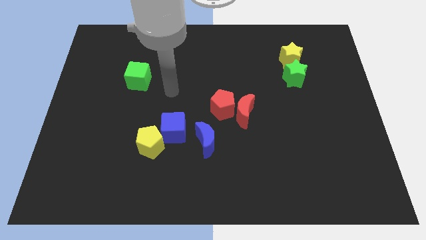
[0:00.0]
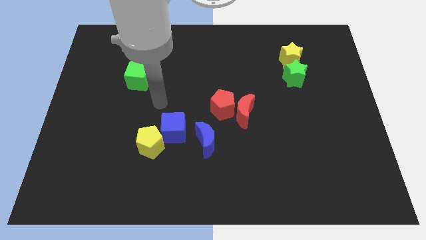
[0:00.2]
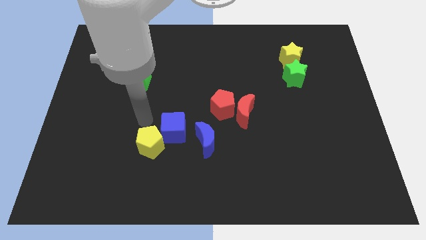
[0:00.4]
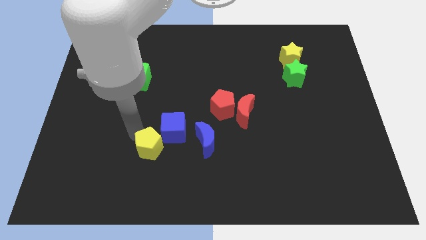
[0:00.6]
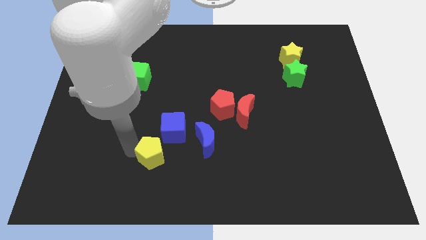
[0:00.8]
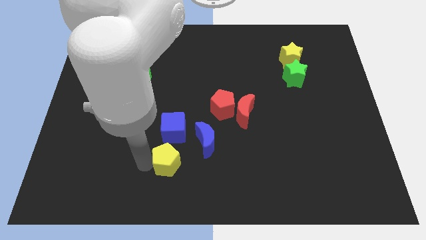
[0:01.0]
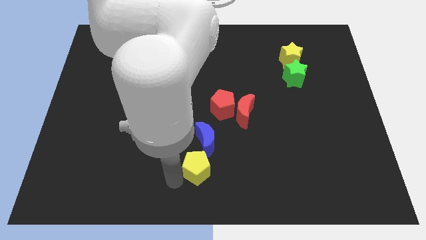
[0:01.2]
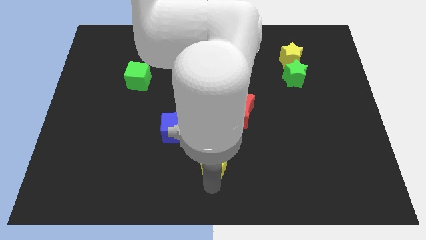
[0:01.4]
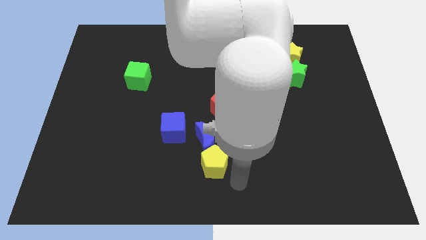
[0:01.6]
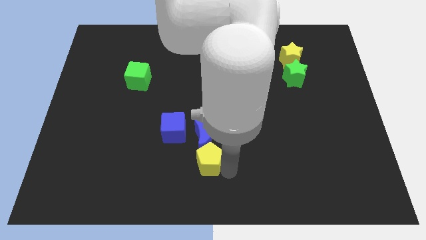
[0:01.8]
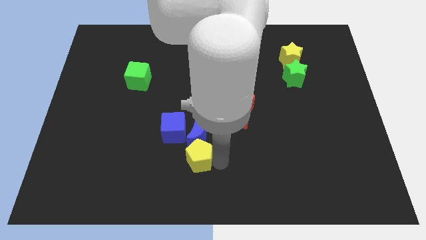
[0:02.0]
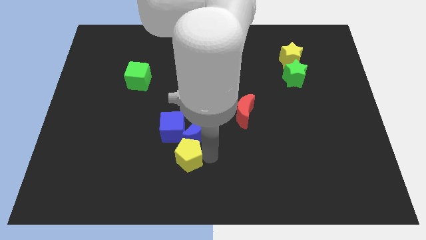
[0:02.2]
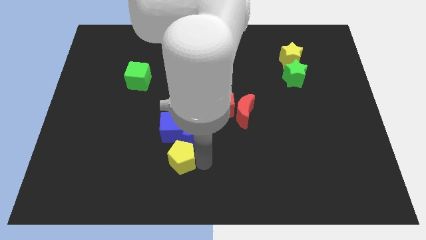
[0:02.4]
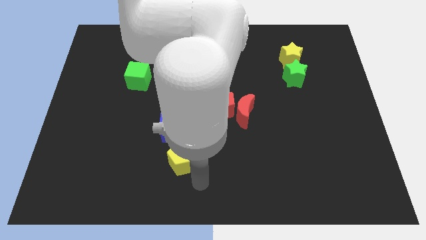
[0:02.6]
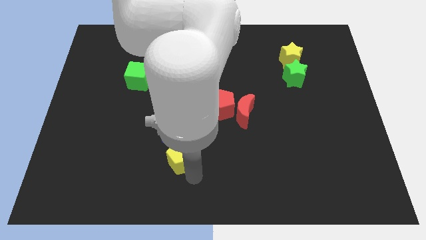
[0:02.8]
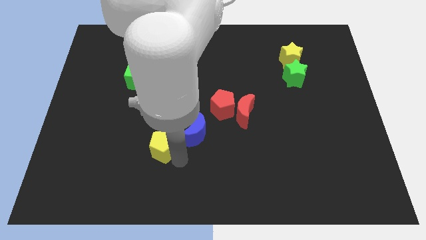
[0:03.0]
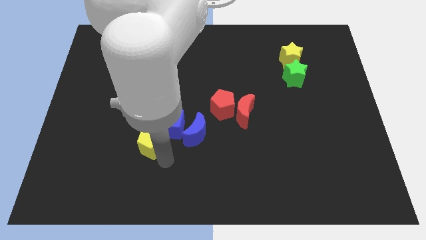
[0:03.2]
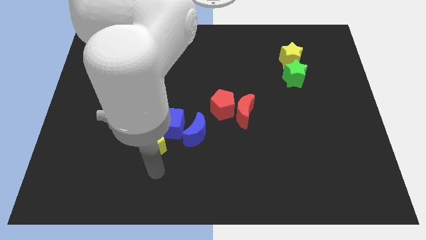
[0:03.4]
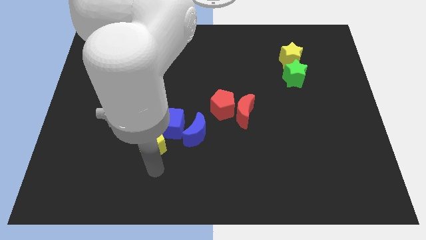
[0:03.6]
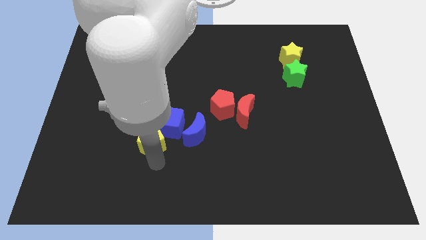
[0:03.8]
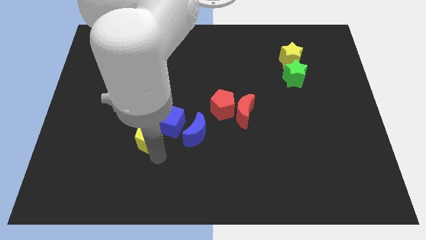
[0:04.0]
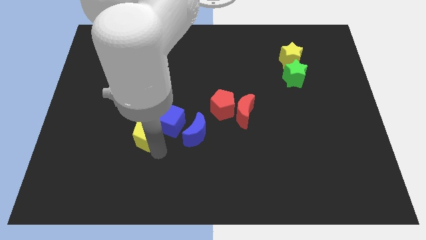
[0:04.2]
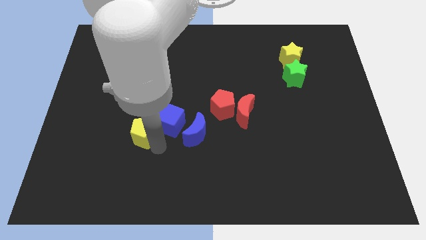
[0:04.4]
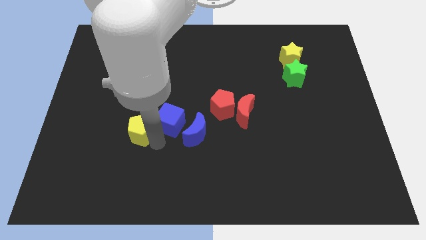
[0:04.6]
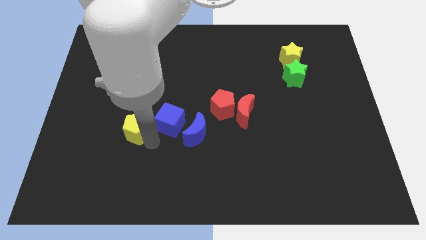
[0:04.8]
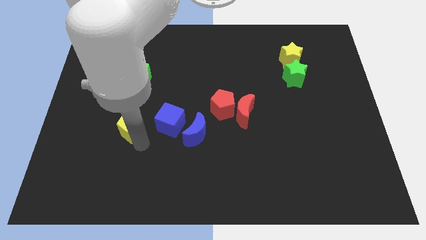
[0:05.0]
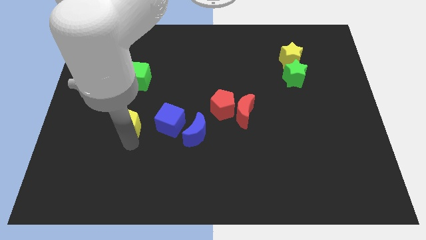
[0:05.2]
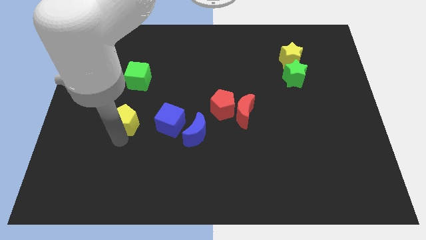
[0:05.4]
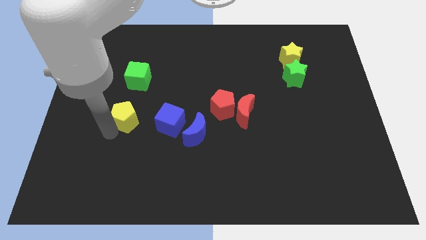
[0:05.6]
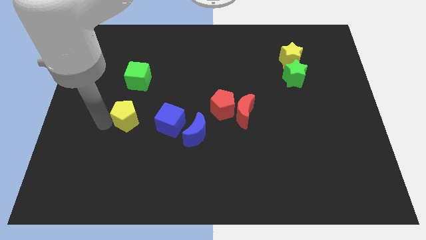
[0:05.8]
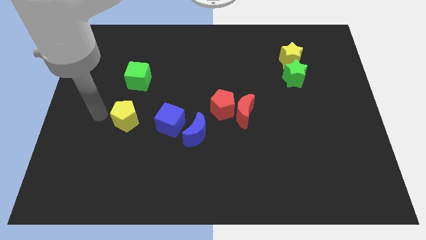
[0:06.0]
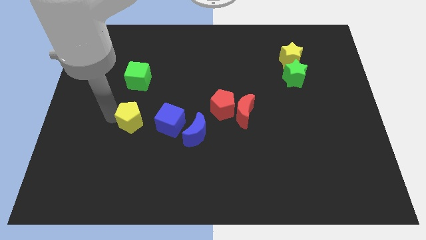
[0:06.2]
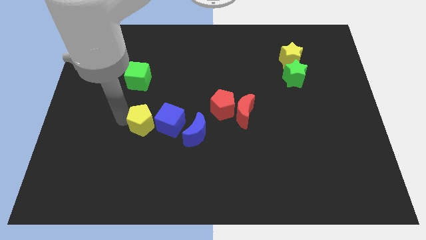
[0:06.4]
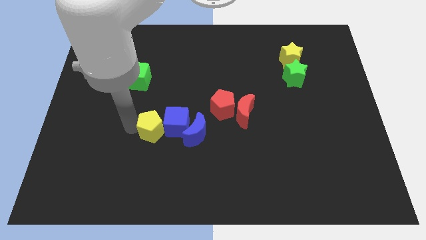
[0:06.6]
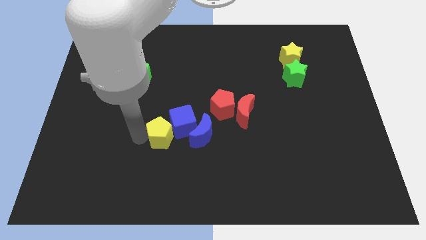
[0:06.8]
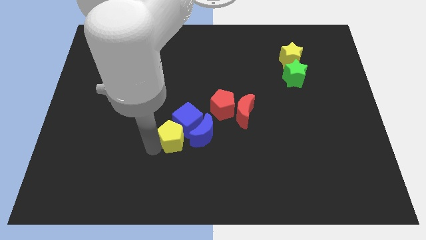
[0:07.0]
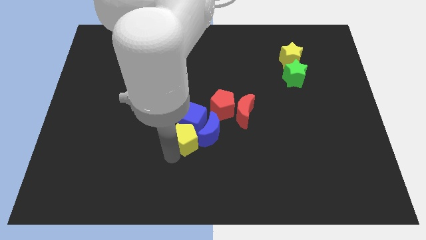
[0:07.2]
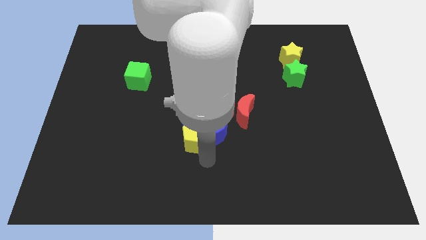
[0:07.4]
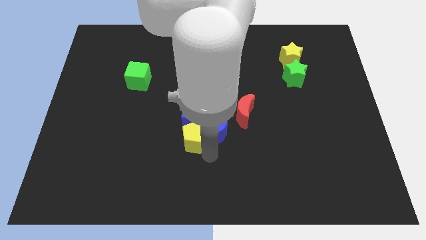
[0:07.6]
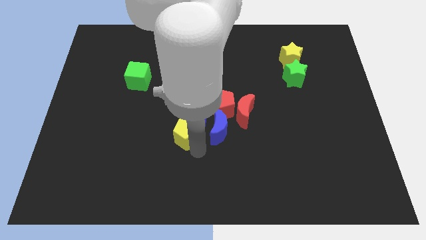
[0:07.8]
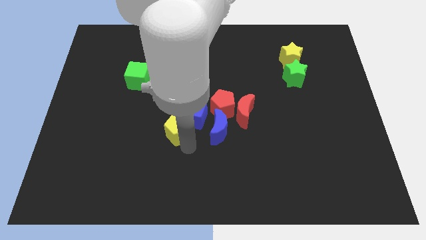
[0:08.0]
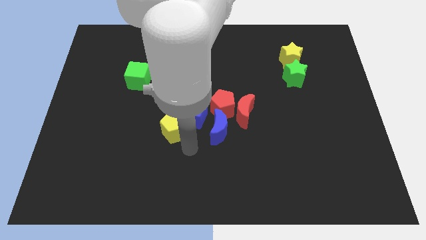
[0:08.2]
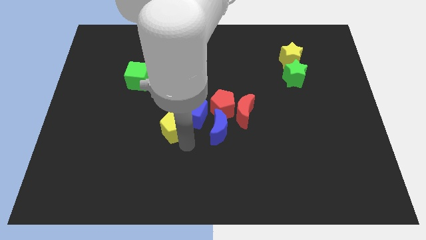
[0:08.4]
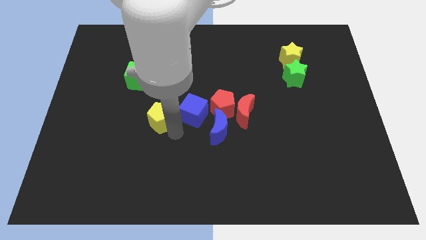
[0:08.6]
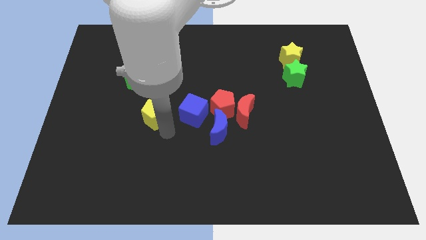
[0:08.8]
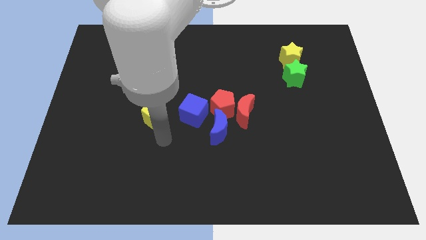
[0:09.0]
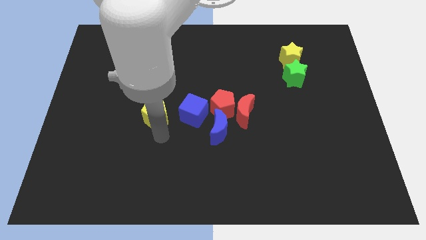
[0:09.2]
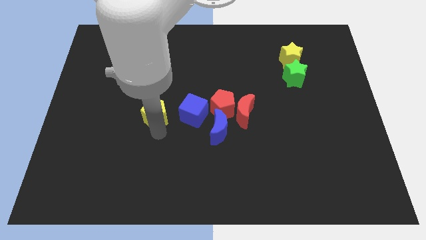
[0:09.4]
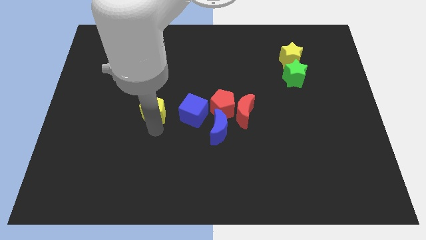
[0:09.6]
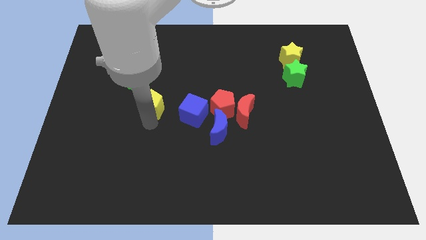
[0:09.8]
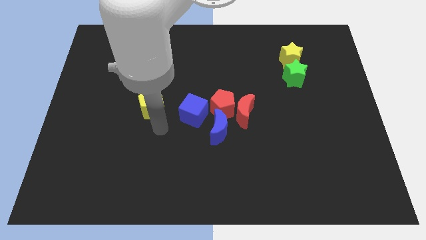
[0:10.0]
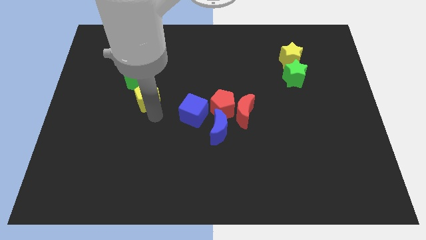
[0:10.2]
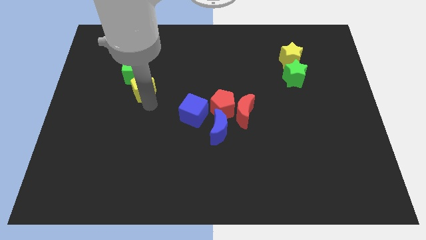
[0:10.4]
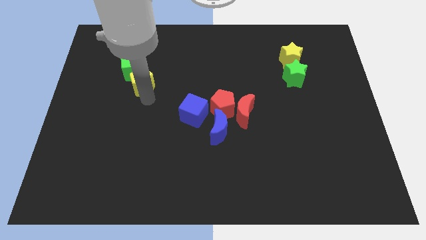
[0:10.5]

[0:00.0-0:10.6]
put the yellow pentagon to the green cube

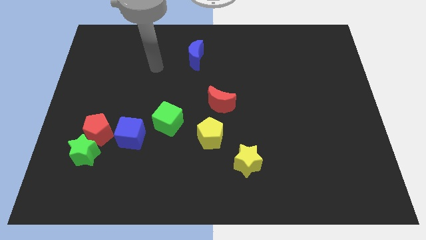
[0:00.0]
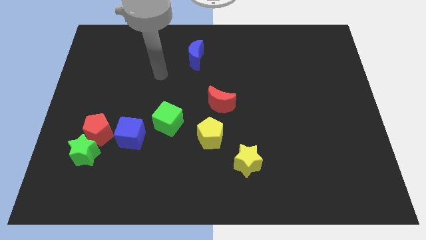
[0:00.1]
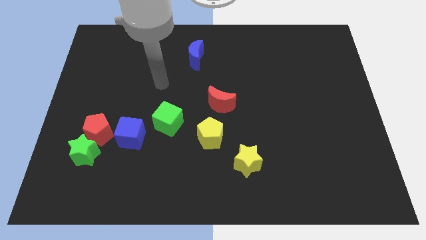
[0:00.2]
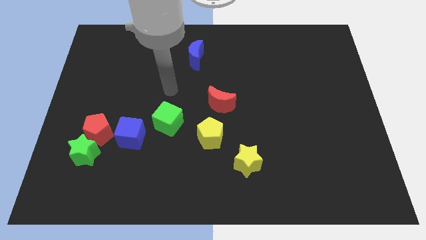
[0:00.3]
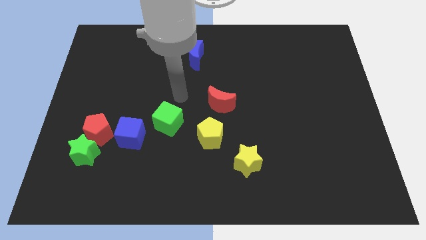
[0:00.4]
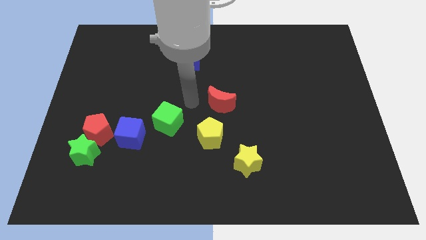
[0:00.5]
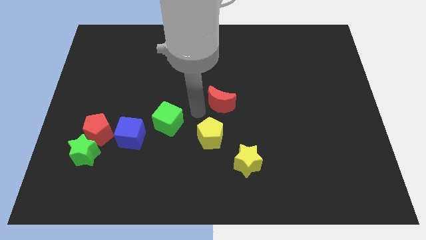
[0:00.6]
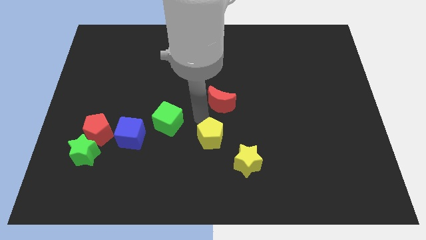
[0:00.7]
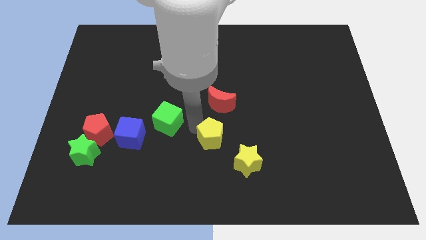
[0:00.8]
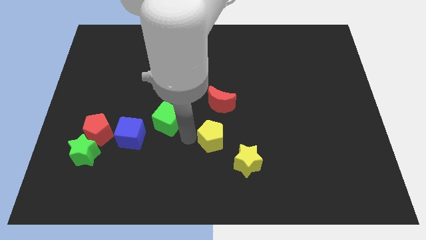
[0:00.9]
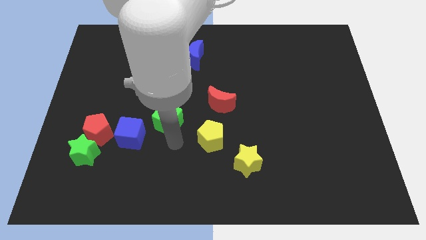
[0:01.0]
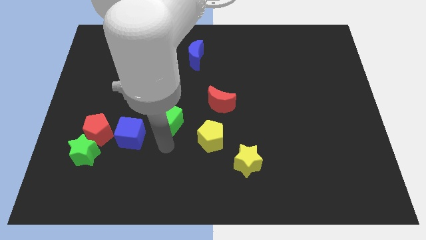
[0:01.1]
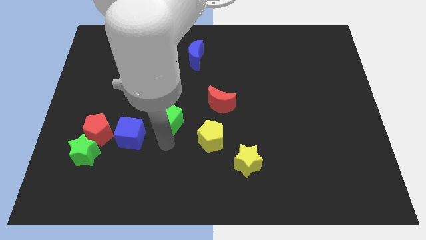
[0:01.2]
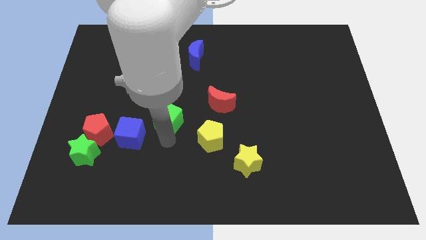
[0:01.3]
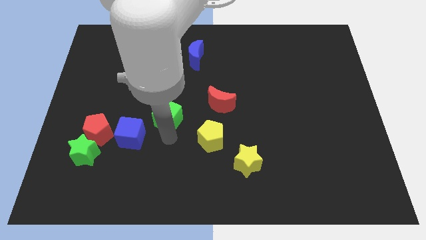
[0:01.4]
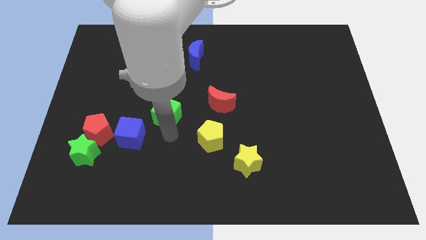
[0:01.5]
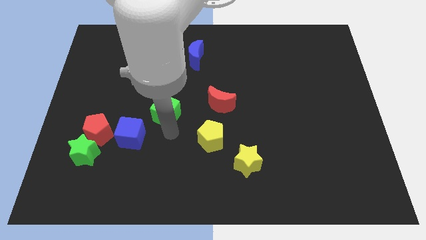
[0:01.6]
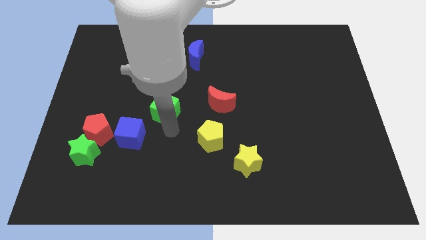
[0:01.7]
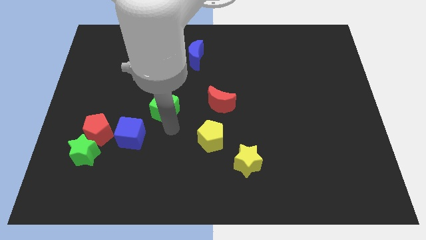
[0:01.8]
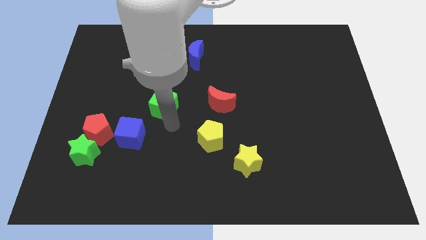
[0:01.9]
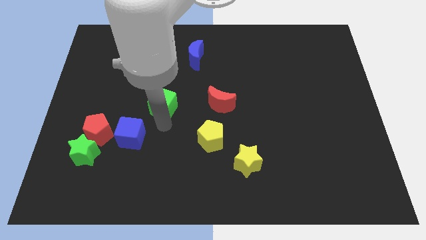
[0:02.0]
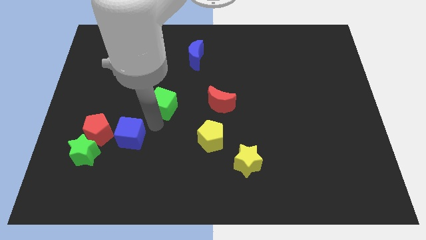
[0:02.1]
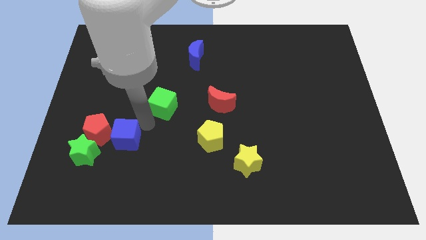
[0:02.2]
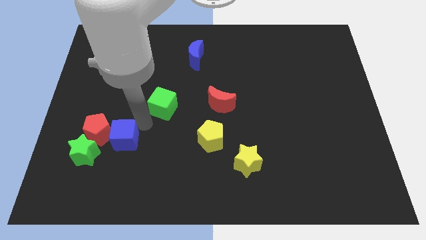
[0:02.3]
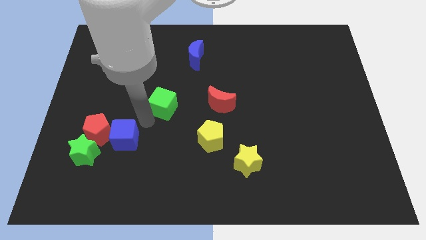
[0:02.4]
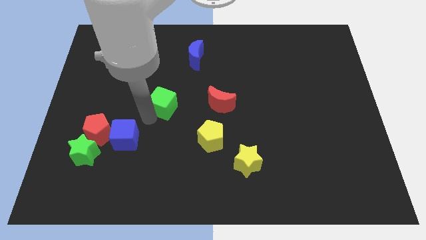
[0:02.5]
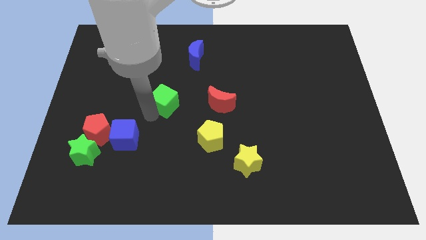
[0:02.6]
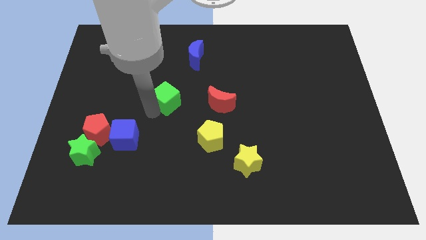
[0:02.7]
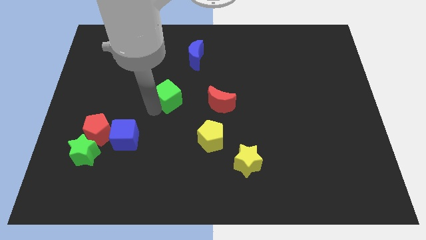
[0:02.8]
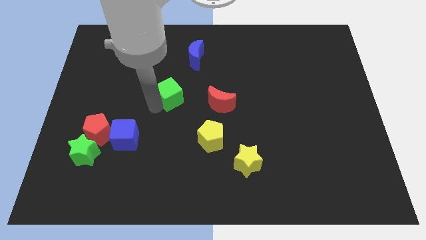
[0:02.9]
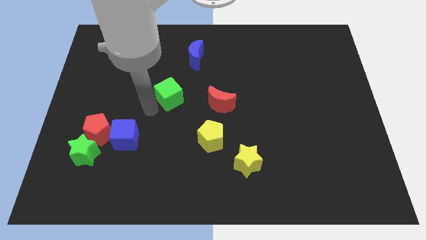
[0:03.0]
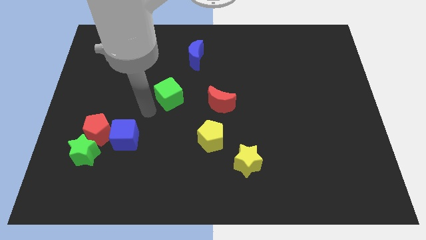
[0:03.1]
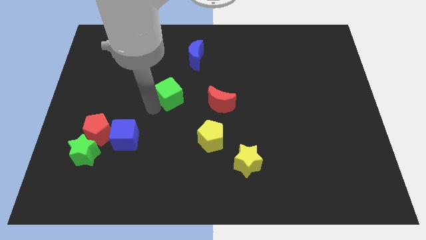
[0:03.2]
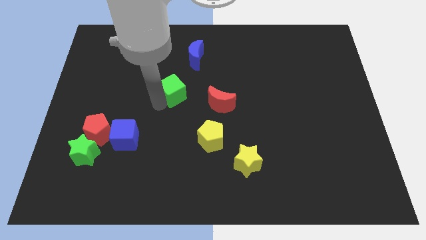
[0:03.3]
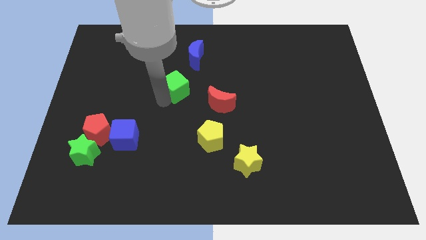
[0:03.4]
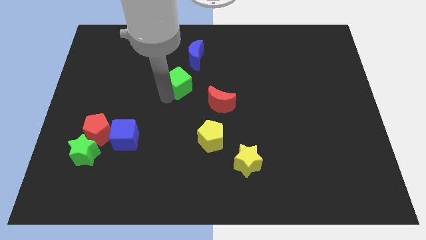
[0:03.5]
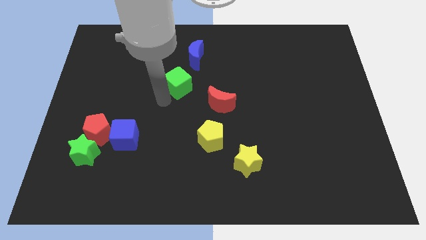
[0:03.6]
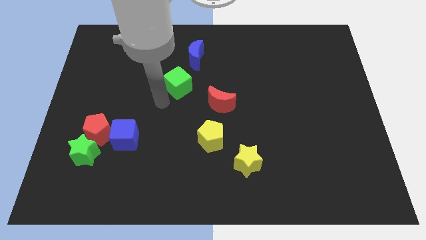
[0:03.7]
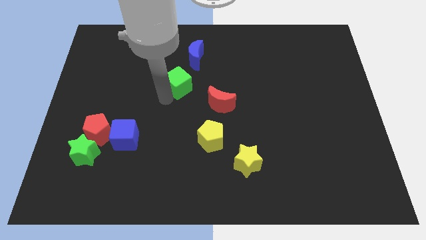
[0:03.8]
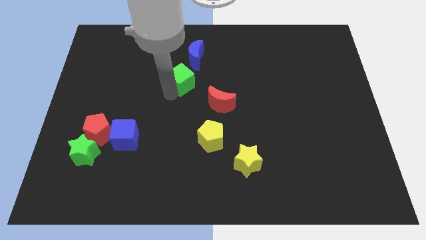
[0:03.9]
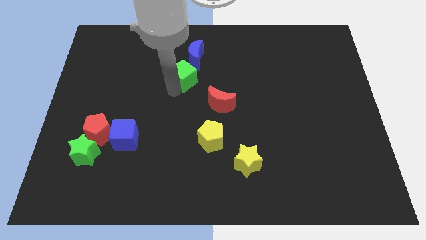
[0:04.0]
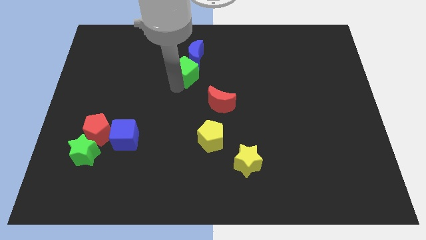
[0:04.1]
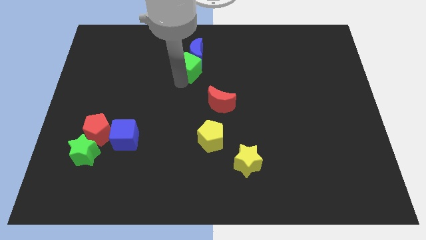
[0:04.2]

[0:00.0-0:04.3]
move the green cube to the blue moon
